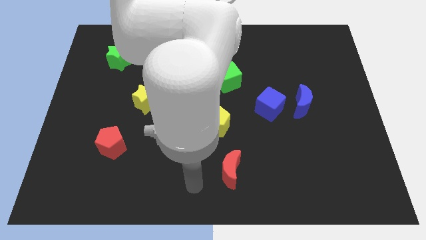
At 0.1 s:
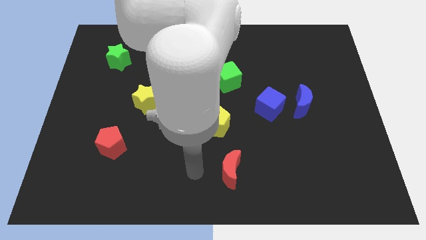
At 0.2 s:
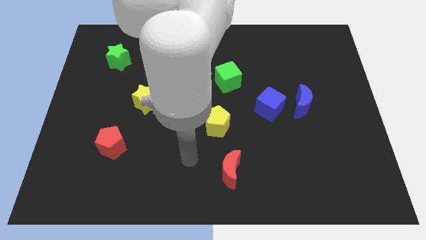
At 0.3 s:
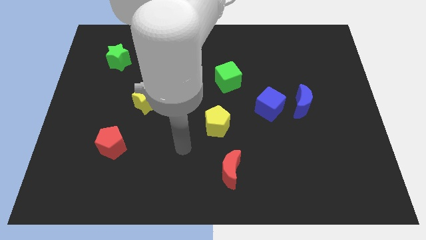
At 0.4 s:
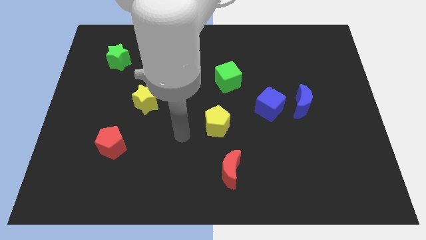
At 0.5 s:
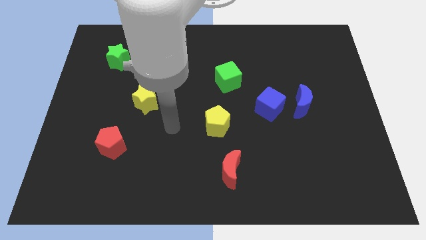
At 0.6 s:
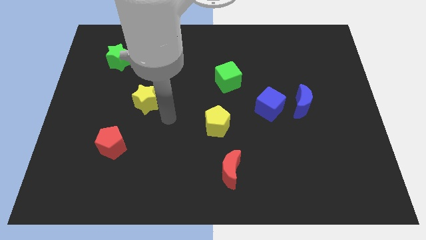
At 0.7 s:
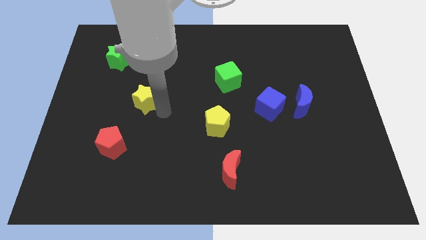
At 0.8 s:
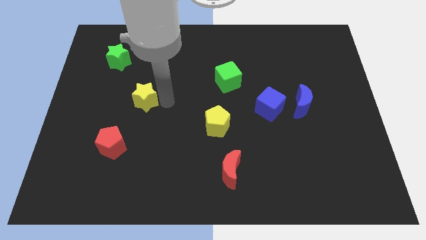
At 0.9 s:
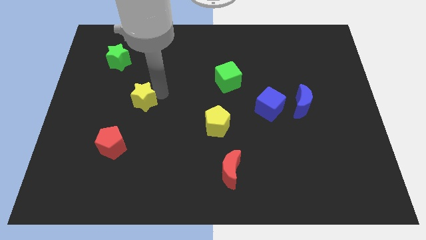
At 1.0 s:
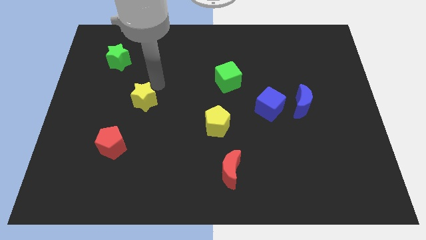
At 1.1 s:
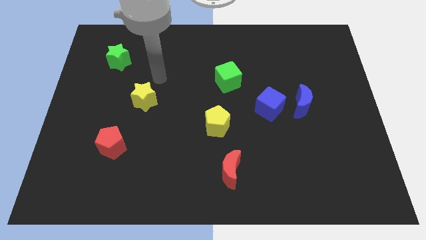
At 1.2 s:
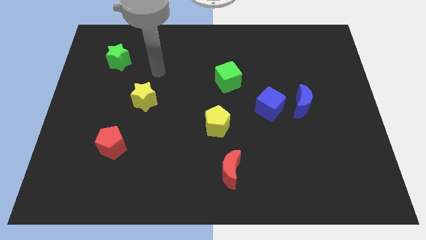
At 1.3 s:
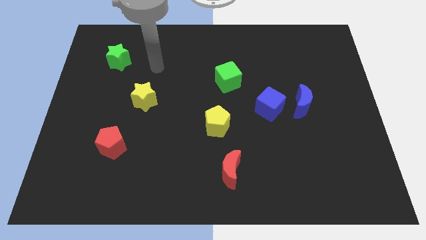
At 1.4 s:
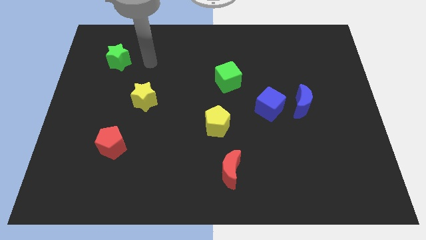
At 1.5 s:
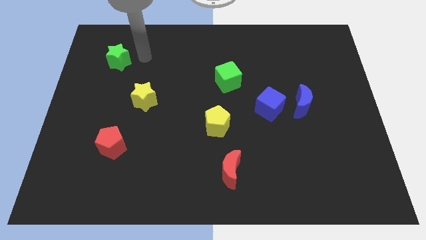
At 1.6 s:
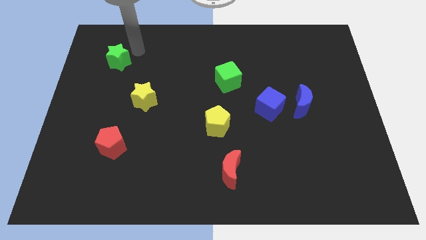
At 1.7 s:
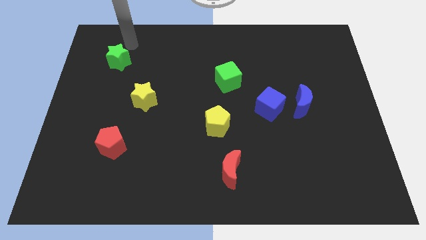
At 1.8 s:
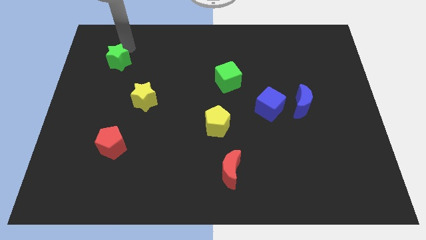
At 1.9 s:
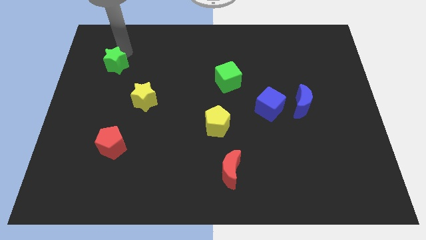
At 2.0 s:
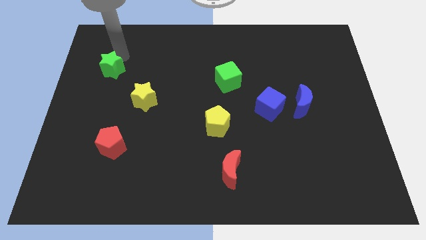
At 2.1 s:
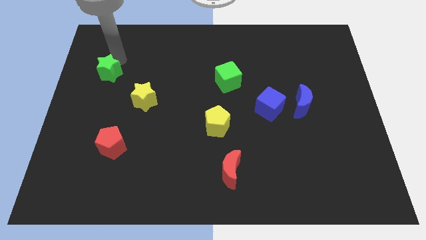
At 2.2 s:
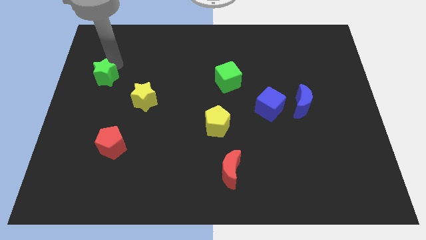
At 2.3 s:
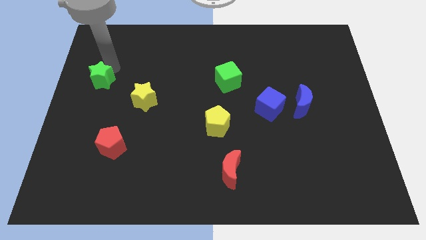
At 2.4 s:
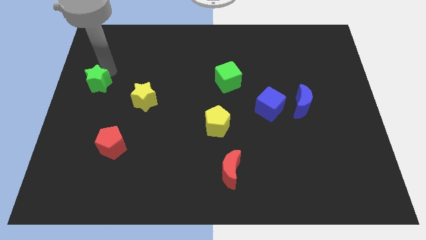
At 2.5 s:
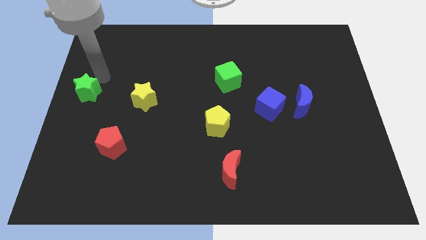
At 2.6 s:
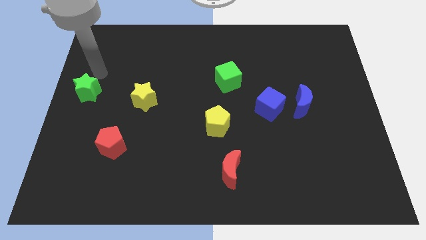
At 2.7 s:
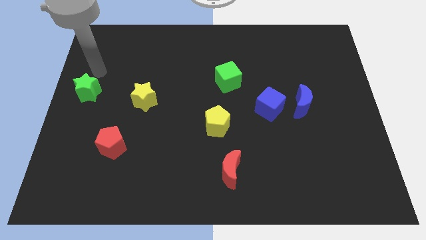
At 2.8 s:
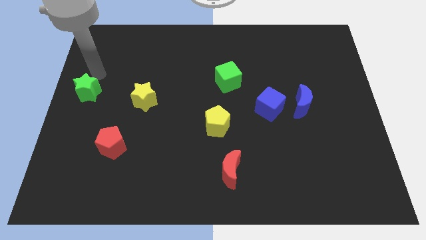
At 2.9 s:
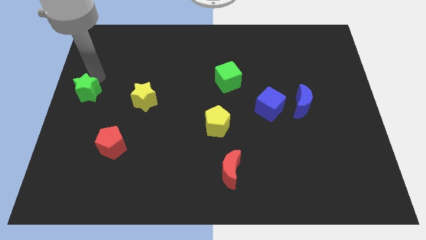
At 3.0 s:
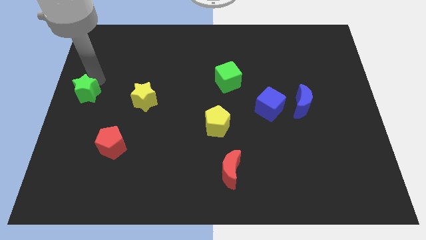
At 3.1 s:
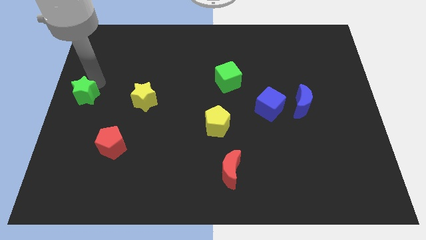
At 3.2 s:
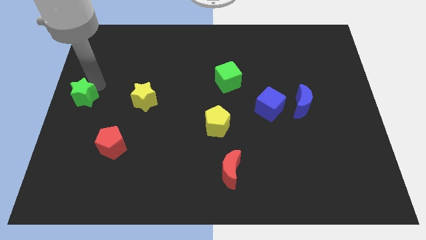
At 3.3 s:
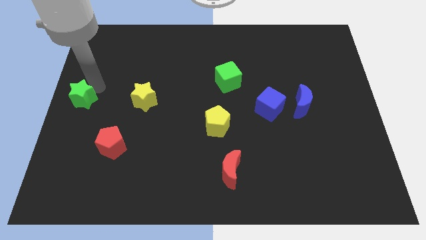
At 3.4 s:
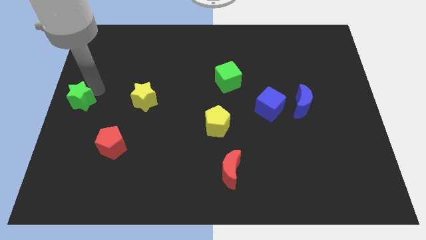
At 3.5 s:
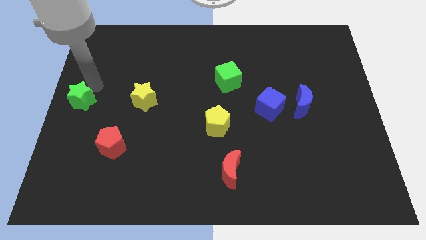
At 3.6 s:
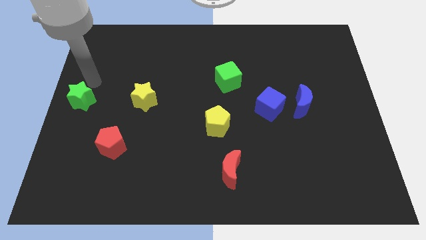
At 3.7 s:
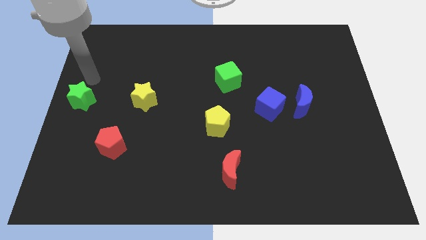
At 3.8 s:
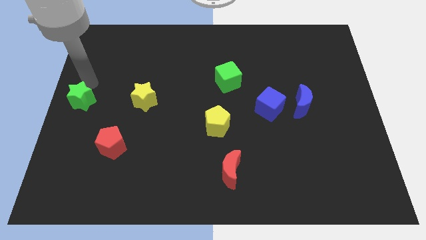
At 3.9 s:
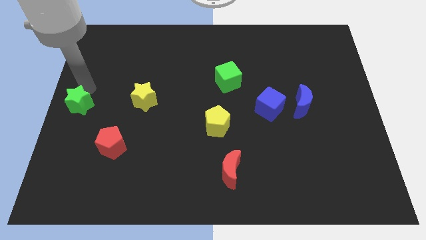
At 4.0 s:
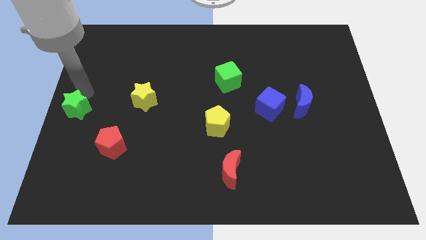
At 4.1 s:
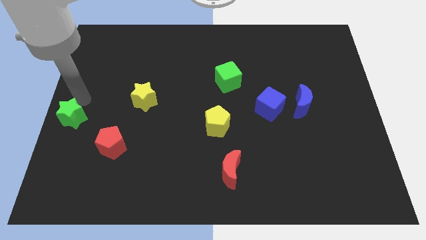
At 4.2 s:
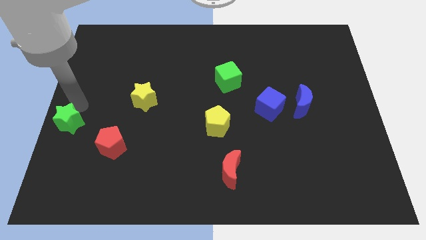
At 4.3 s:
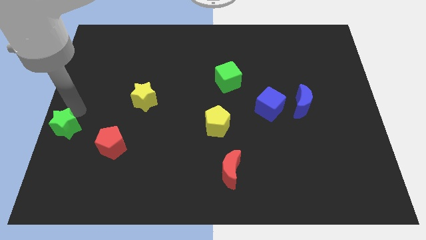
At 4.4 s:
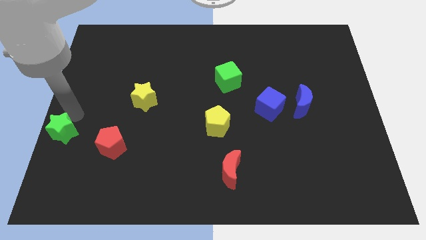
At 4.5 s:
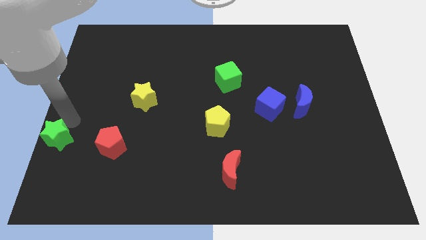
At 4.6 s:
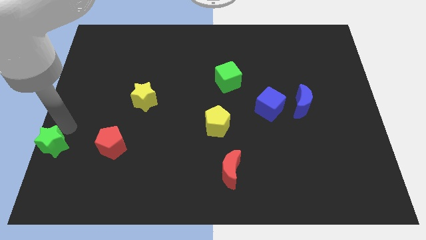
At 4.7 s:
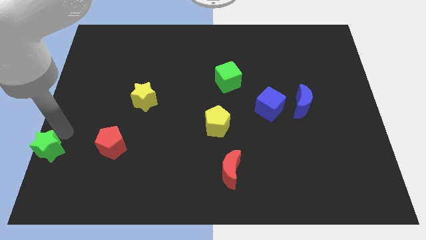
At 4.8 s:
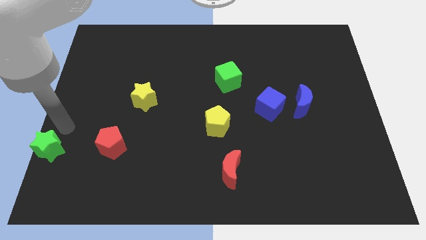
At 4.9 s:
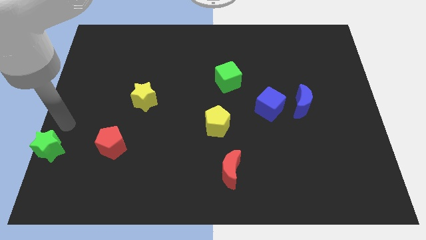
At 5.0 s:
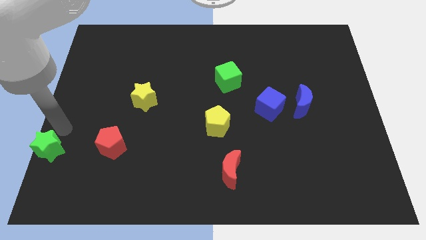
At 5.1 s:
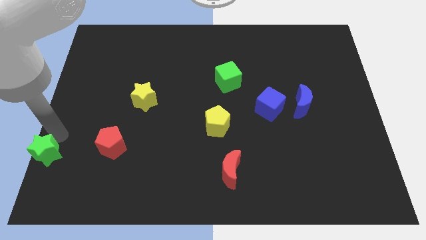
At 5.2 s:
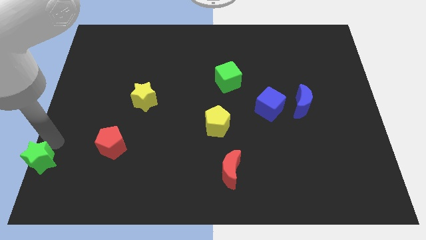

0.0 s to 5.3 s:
move the green star to the bottom left of the board
